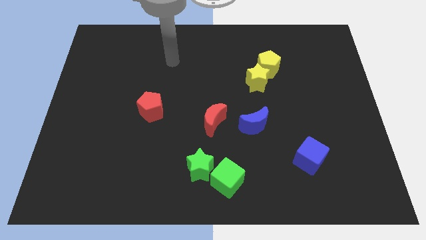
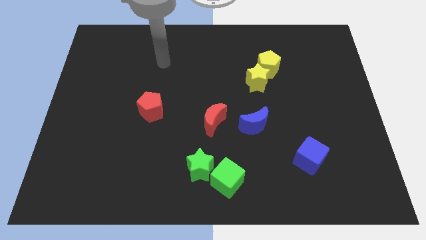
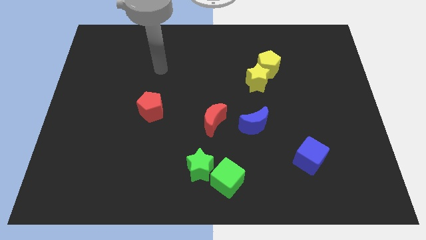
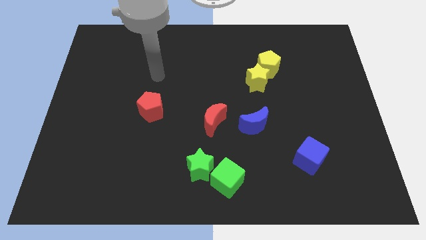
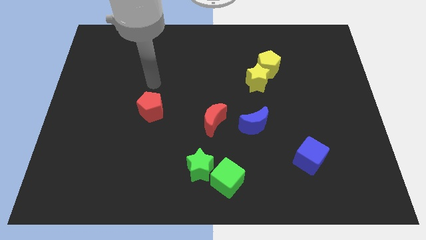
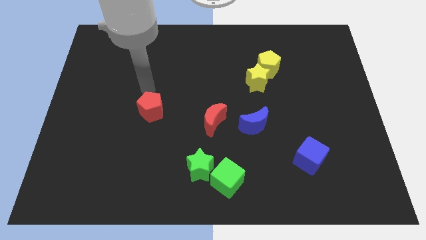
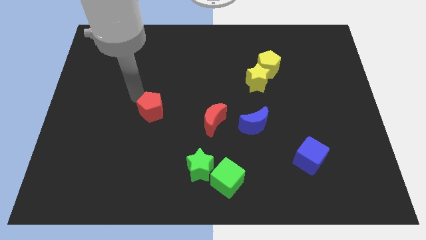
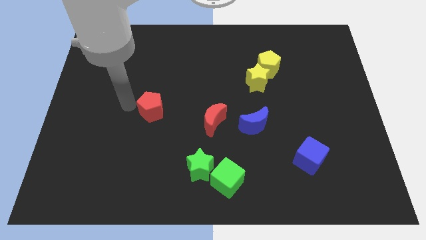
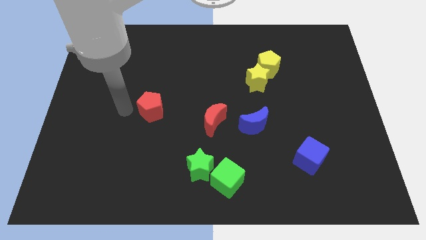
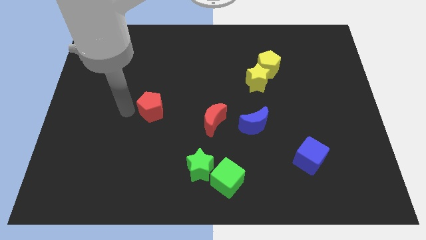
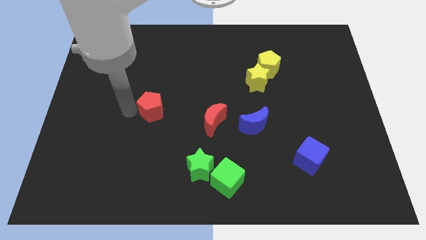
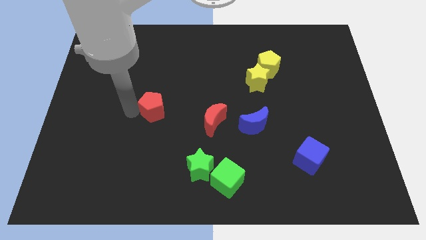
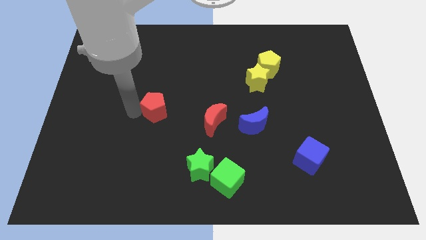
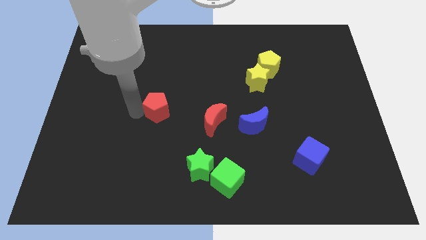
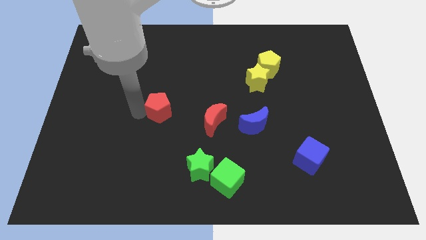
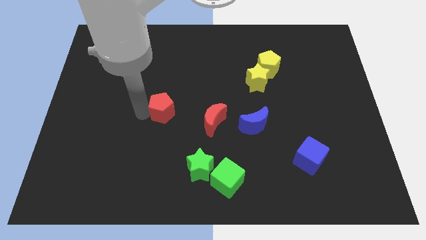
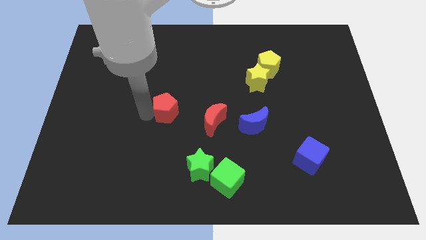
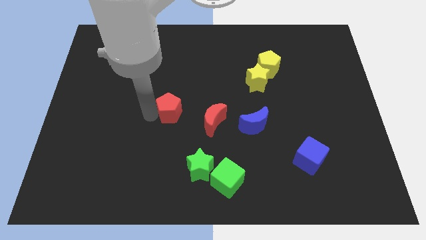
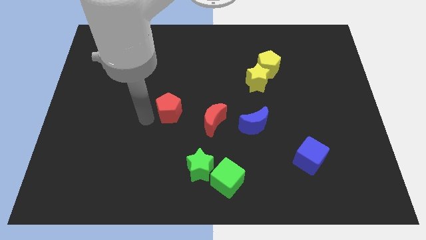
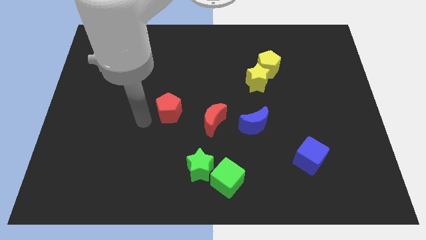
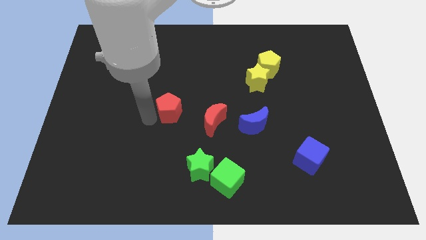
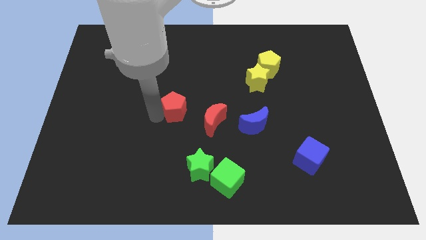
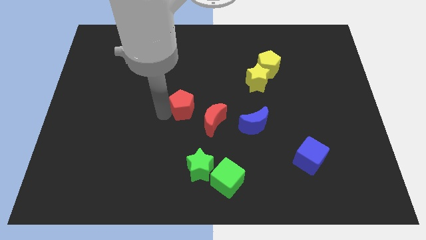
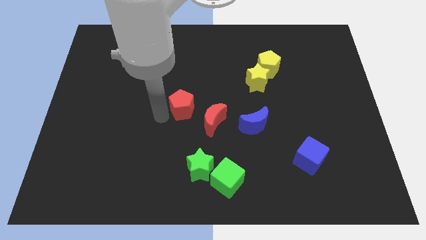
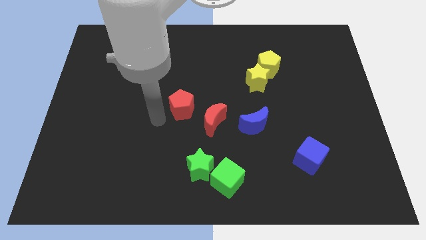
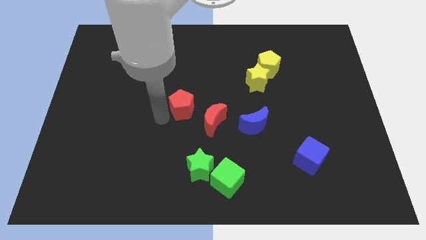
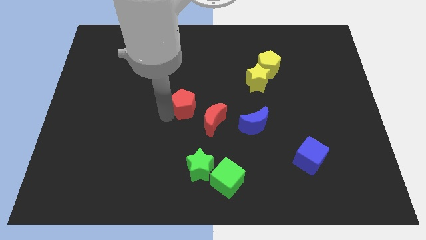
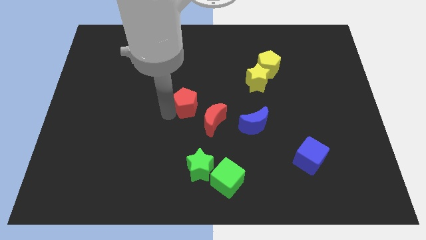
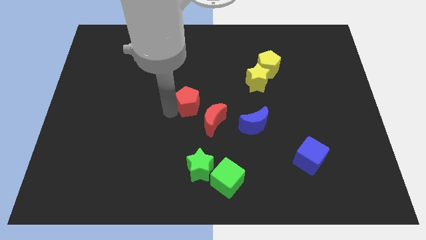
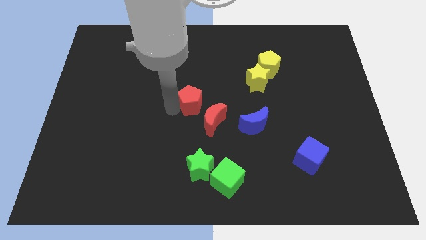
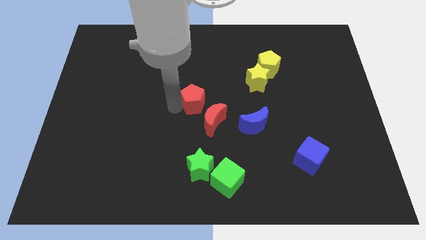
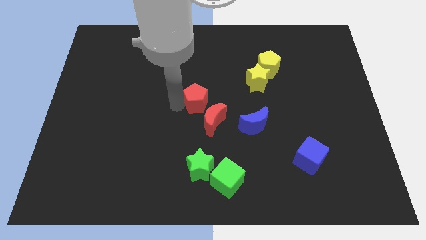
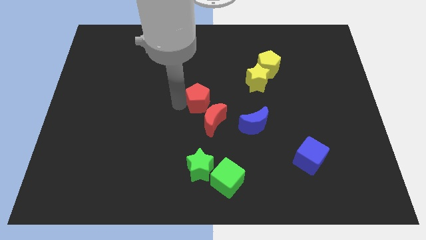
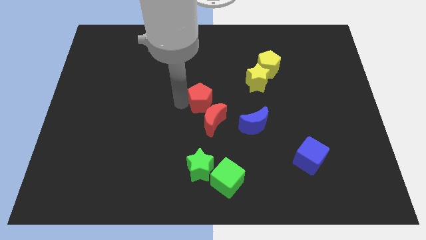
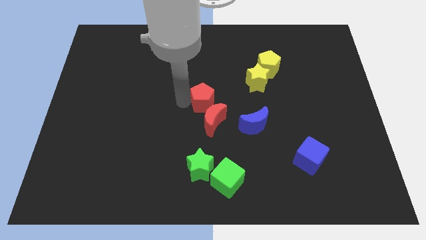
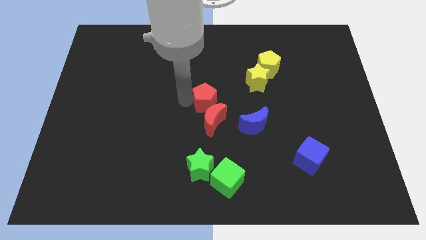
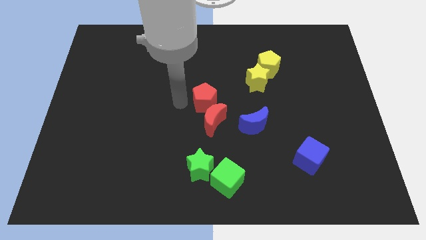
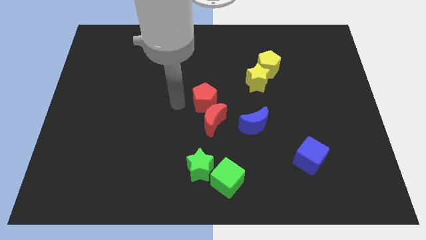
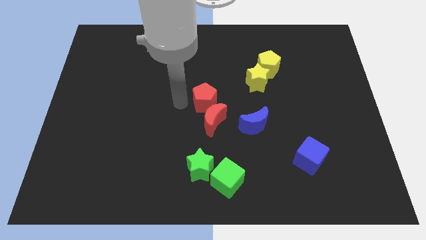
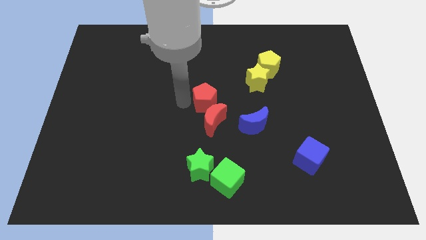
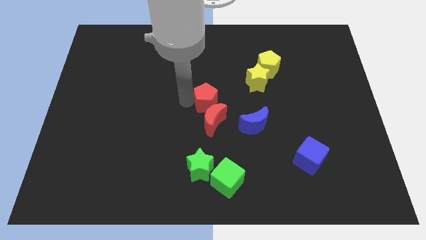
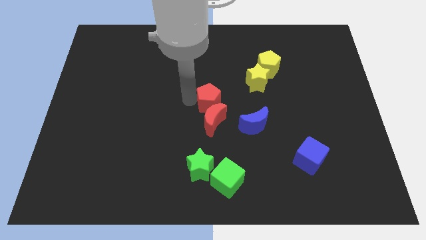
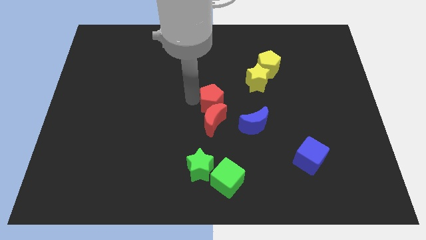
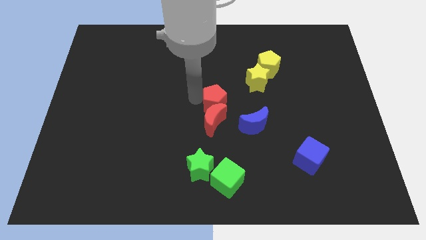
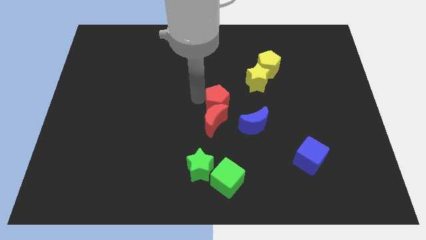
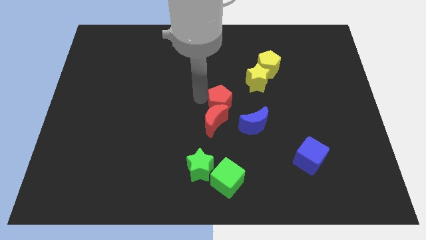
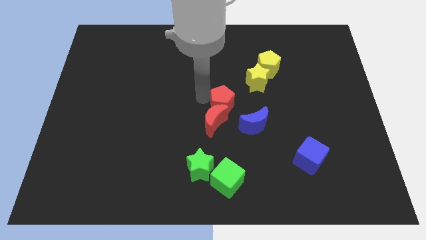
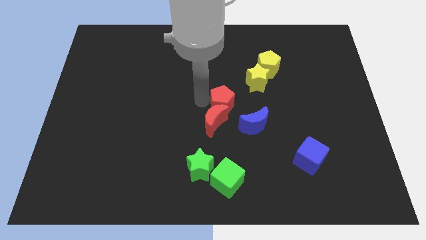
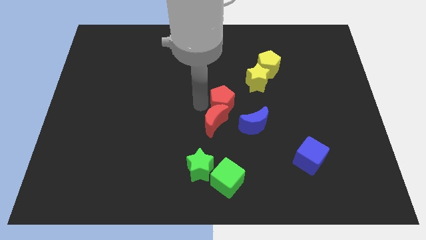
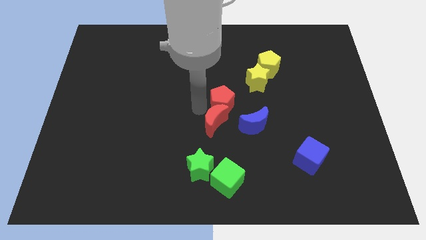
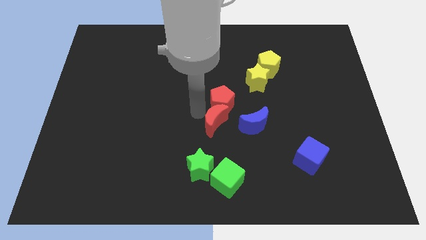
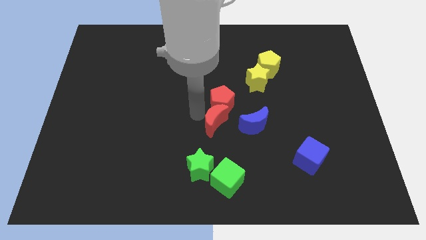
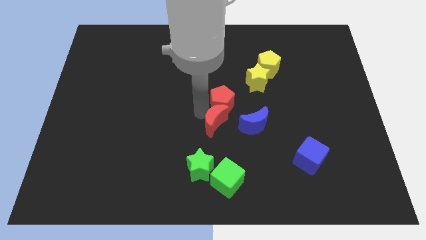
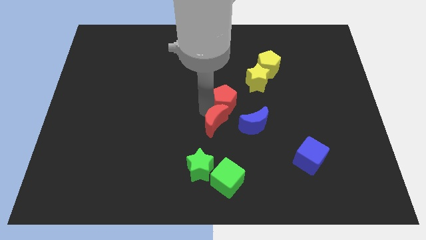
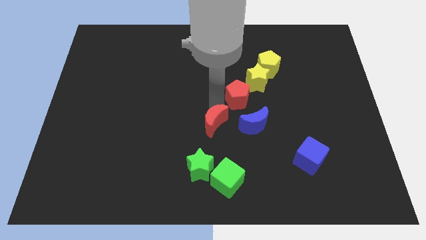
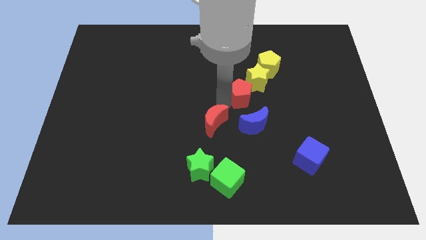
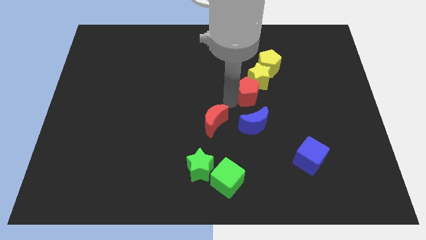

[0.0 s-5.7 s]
push the red pentagon next to the yellow star

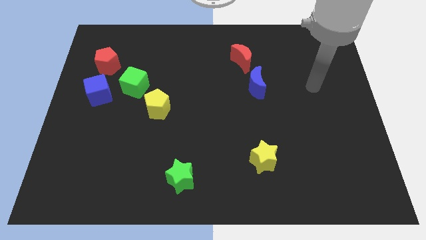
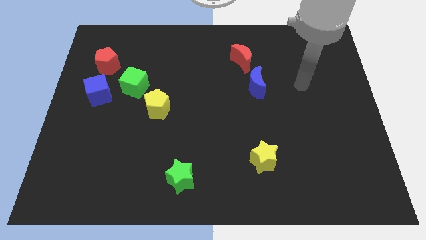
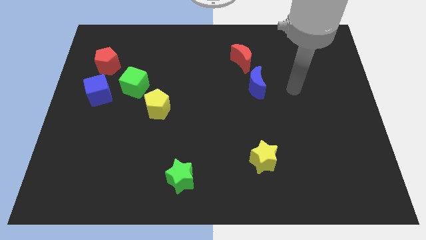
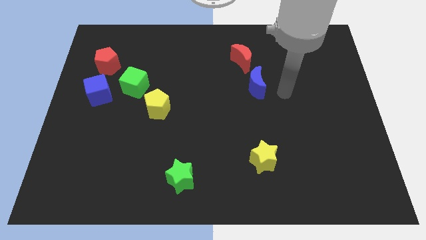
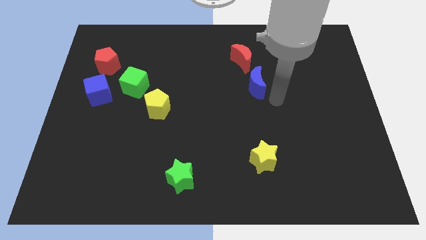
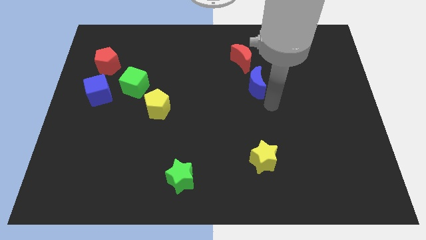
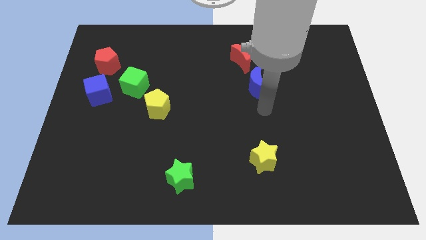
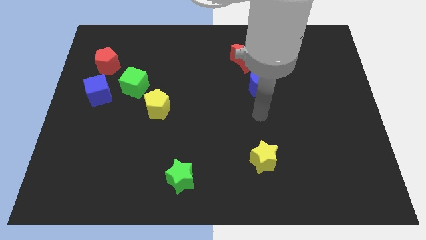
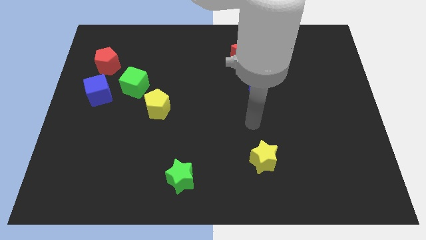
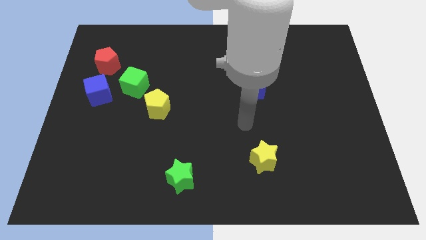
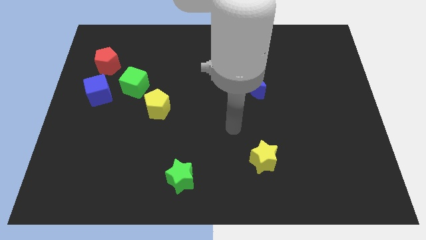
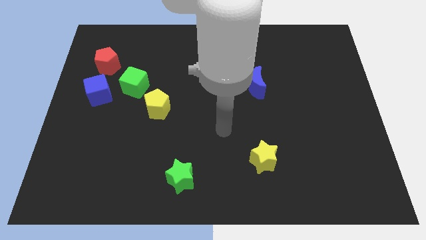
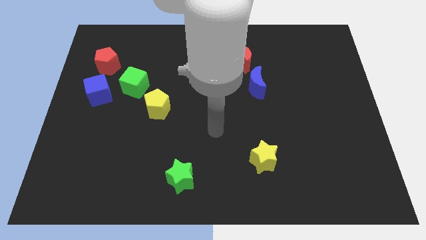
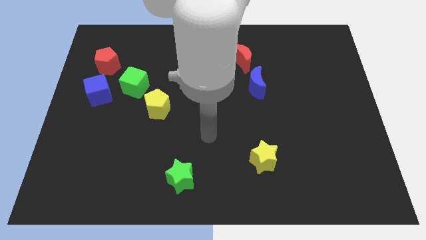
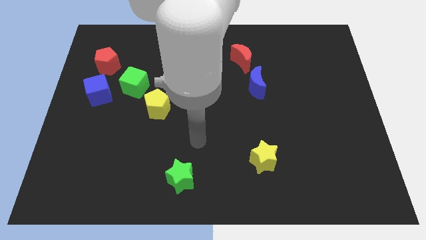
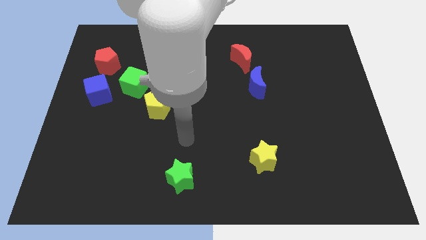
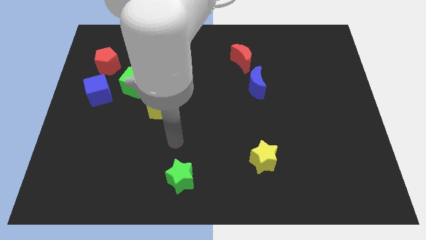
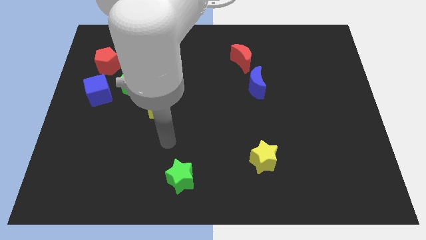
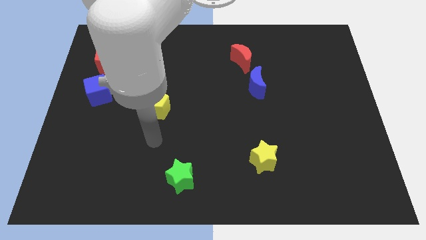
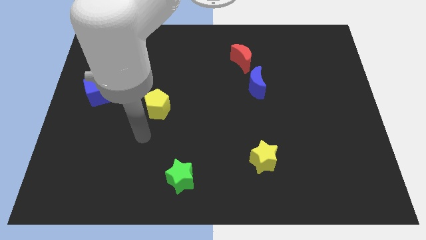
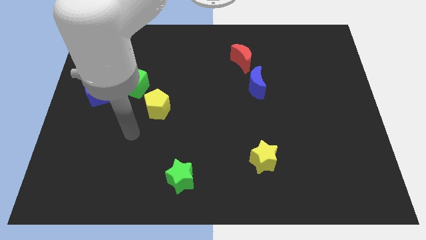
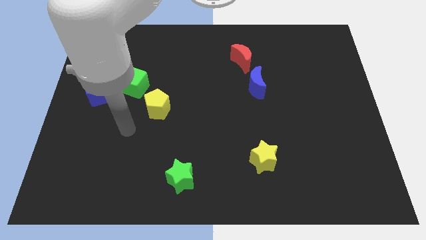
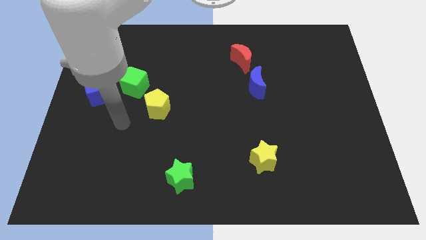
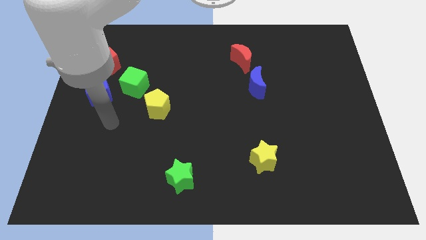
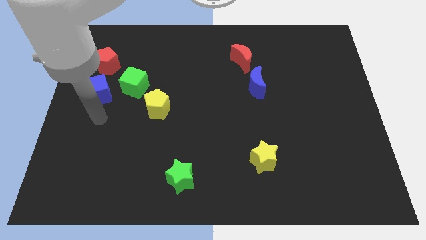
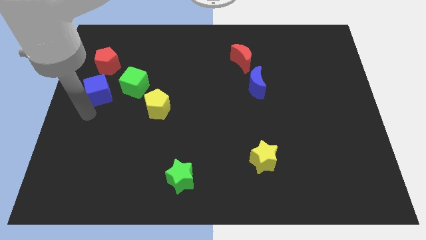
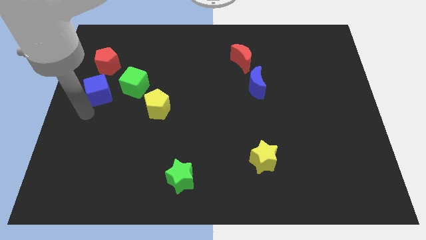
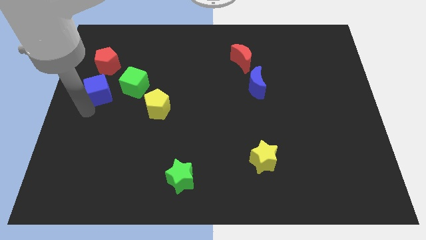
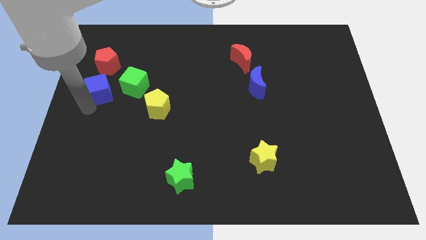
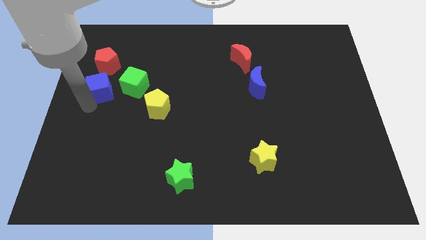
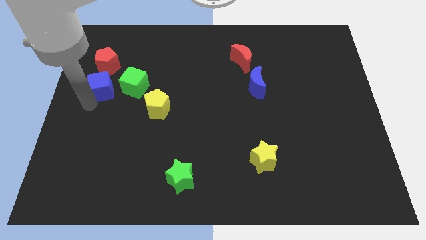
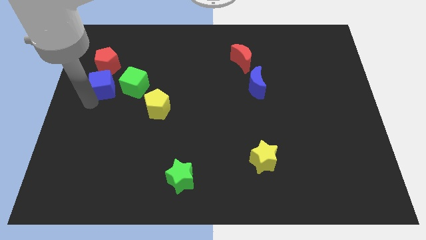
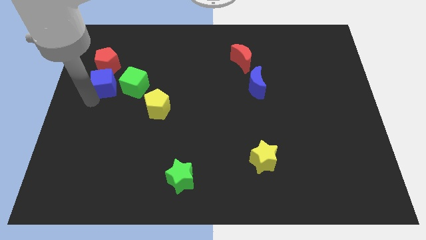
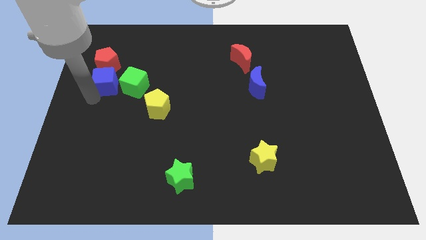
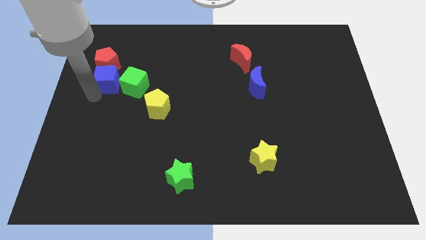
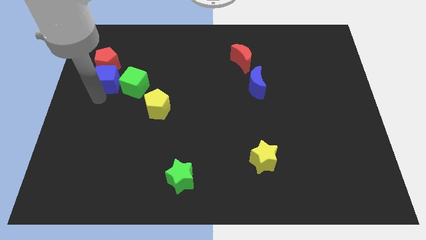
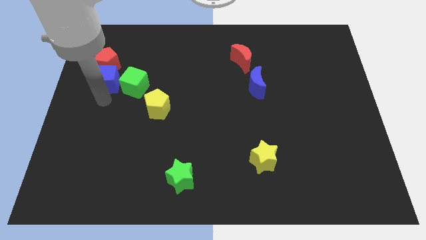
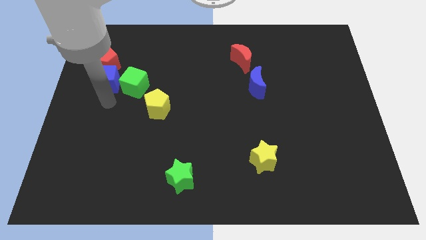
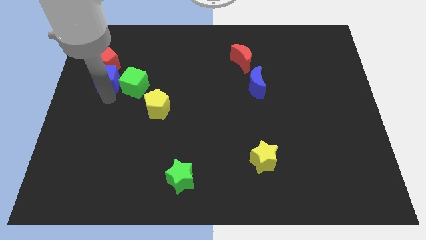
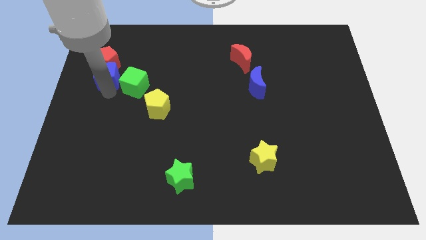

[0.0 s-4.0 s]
slide the blue cube close to the red pentagon
